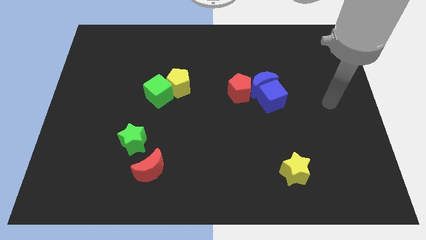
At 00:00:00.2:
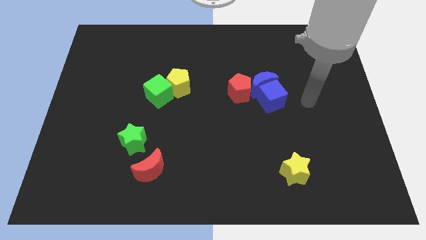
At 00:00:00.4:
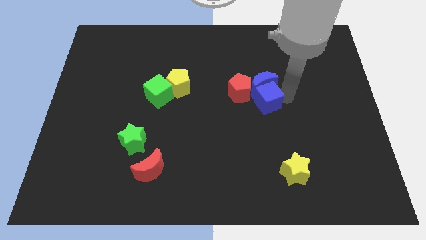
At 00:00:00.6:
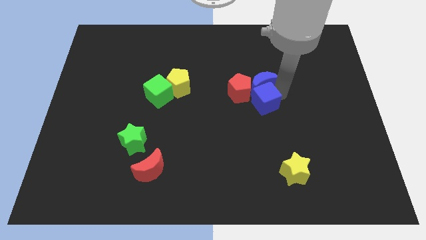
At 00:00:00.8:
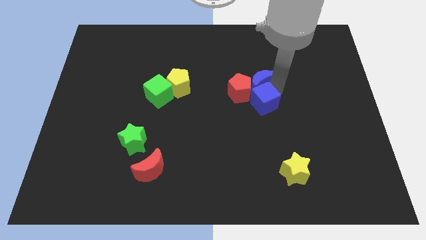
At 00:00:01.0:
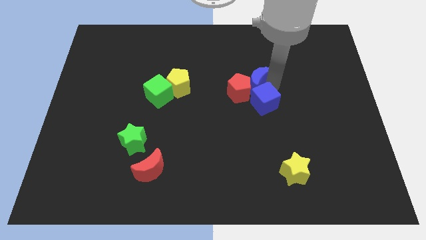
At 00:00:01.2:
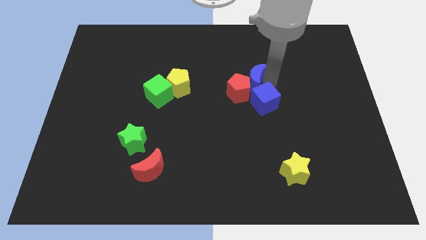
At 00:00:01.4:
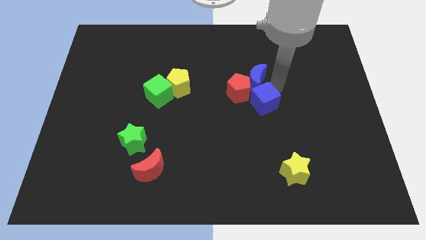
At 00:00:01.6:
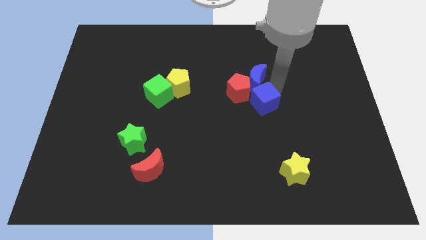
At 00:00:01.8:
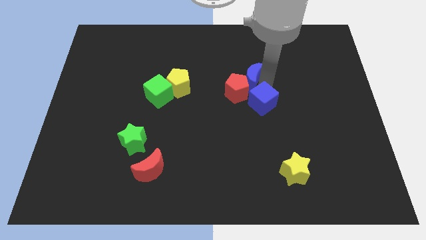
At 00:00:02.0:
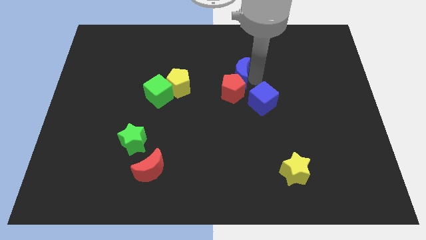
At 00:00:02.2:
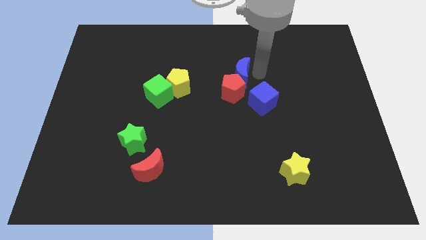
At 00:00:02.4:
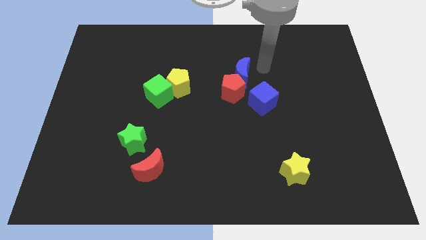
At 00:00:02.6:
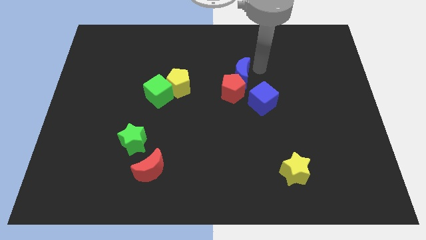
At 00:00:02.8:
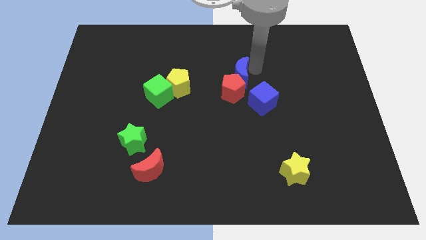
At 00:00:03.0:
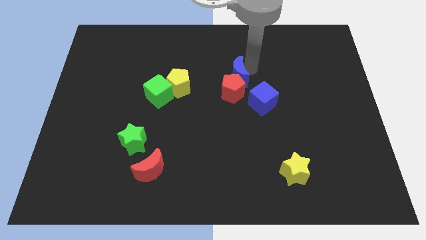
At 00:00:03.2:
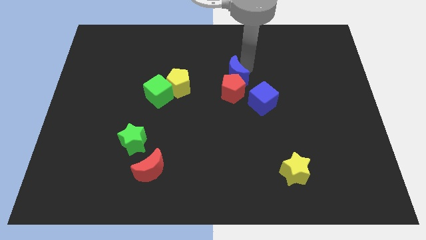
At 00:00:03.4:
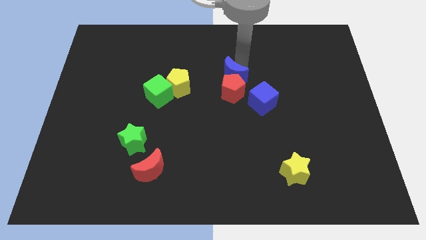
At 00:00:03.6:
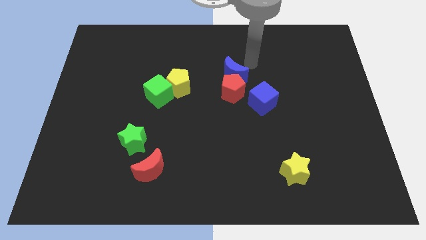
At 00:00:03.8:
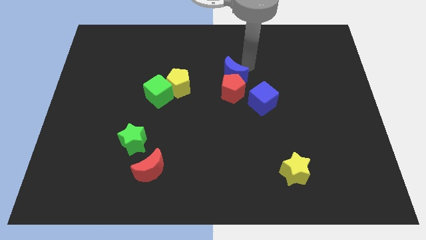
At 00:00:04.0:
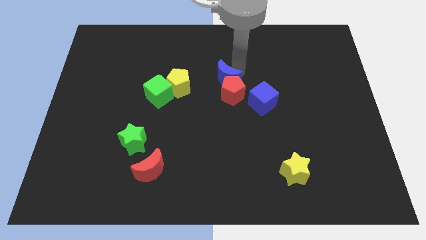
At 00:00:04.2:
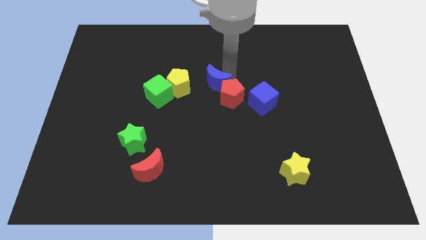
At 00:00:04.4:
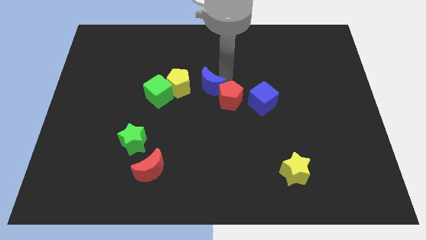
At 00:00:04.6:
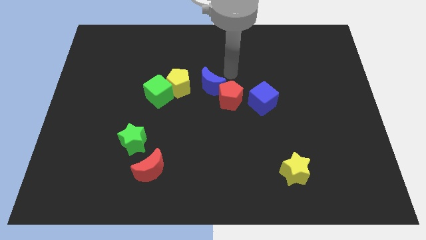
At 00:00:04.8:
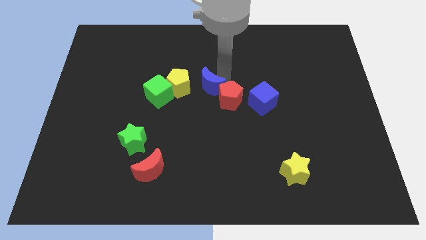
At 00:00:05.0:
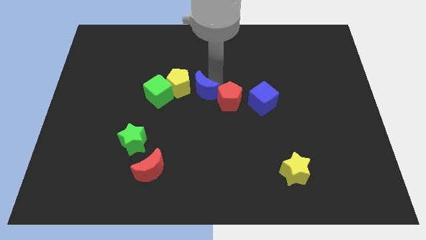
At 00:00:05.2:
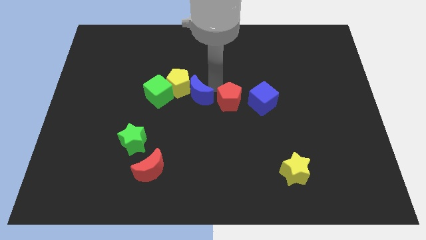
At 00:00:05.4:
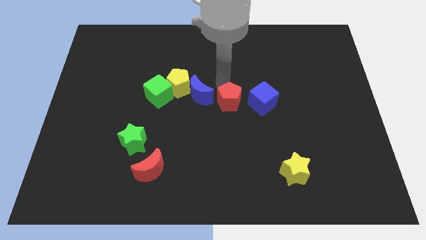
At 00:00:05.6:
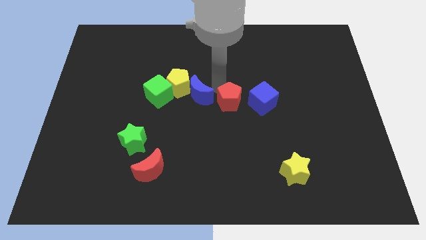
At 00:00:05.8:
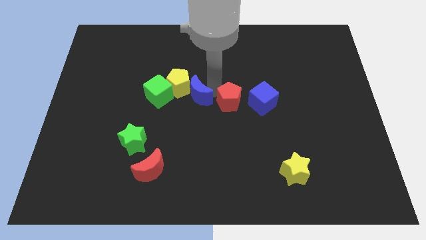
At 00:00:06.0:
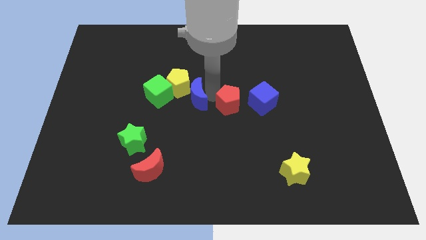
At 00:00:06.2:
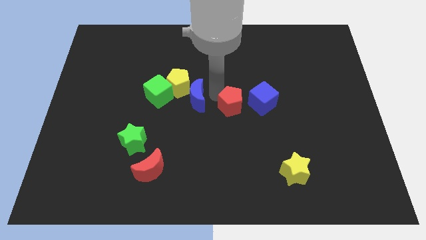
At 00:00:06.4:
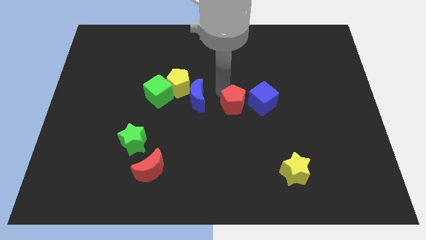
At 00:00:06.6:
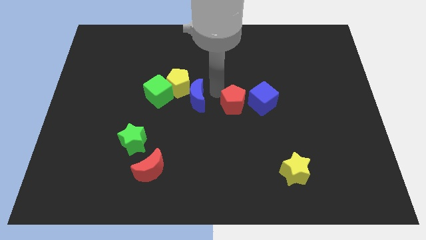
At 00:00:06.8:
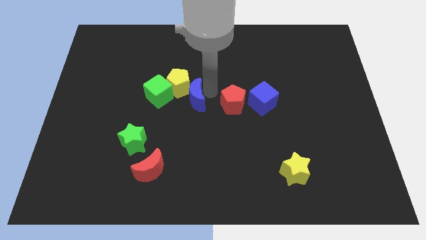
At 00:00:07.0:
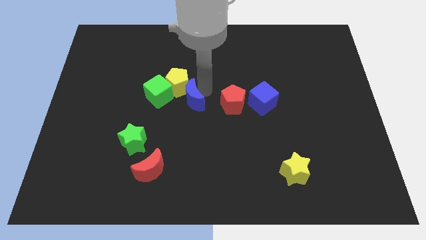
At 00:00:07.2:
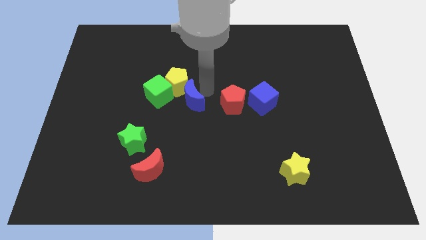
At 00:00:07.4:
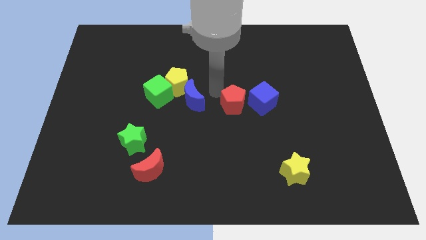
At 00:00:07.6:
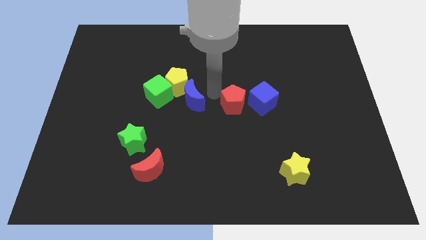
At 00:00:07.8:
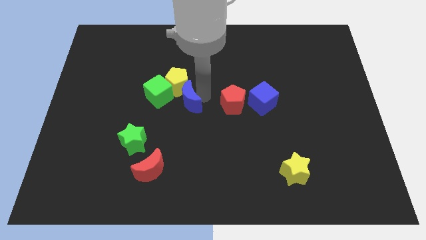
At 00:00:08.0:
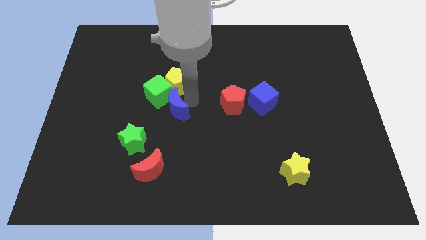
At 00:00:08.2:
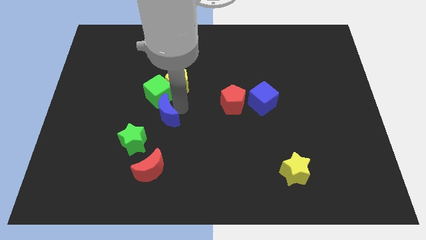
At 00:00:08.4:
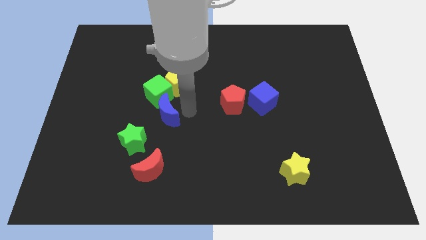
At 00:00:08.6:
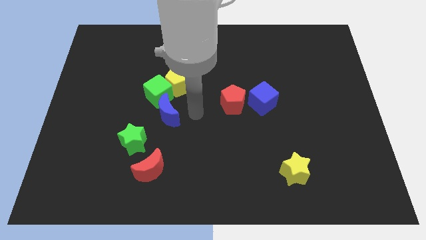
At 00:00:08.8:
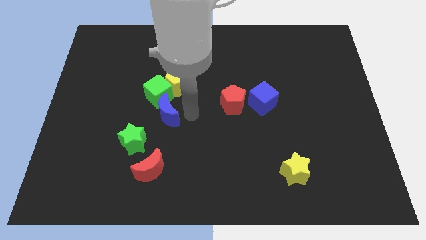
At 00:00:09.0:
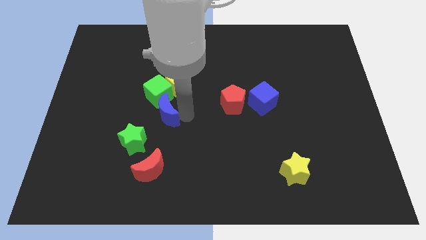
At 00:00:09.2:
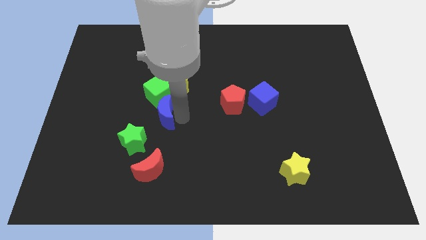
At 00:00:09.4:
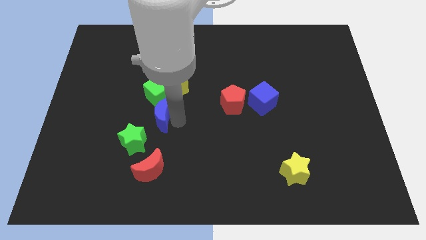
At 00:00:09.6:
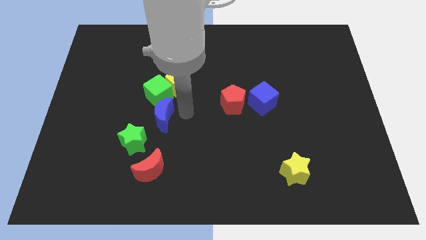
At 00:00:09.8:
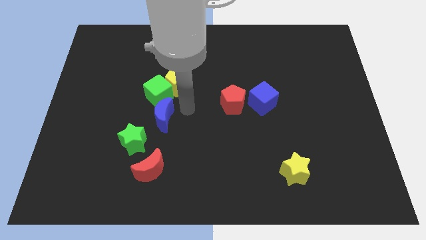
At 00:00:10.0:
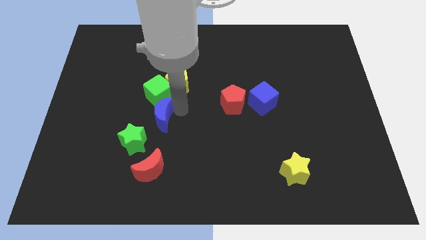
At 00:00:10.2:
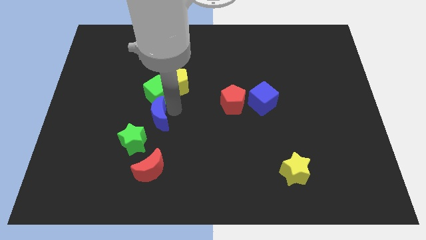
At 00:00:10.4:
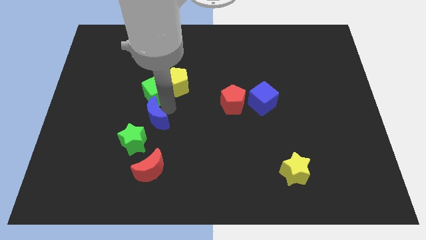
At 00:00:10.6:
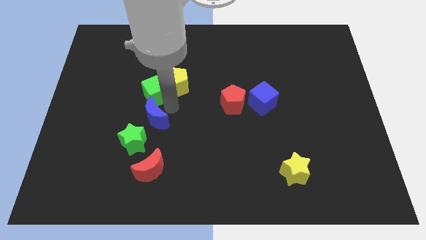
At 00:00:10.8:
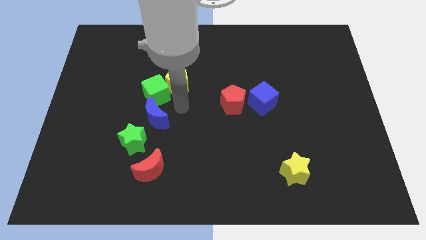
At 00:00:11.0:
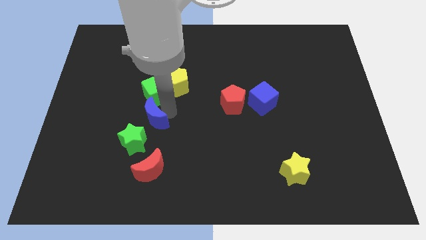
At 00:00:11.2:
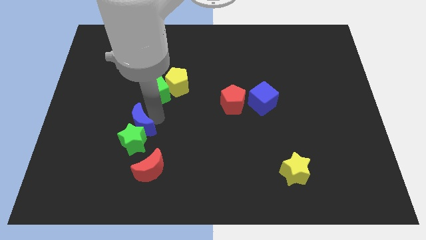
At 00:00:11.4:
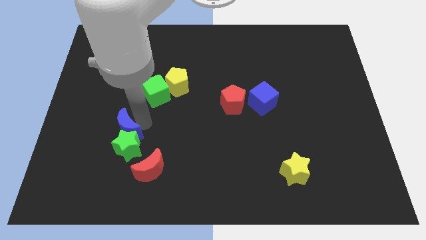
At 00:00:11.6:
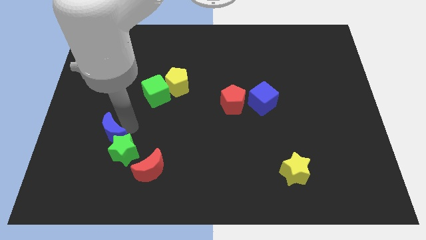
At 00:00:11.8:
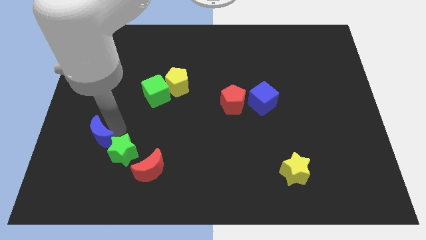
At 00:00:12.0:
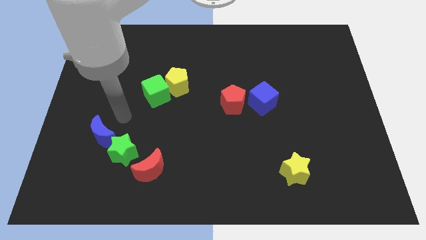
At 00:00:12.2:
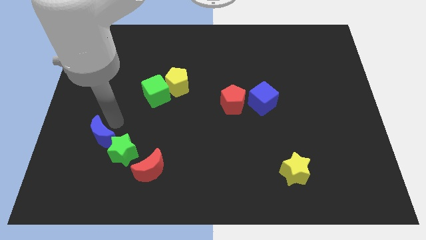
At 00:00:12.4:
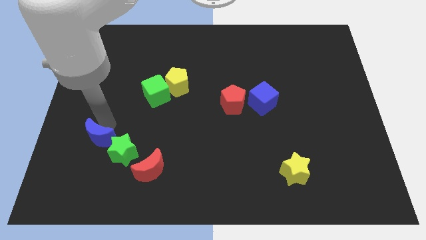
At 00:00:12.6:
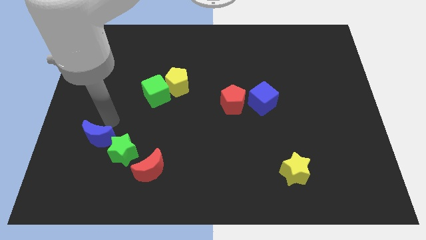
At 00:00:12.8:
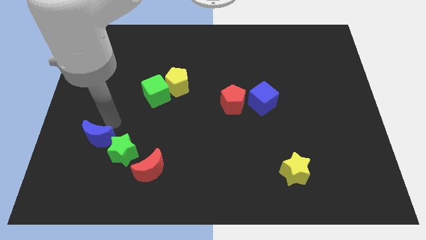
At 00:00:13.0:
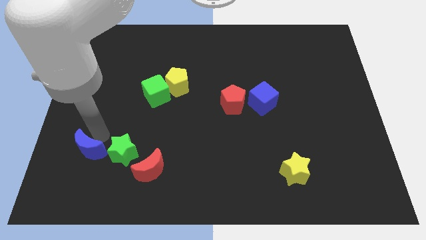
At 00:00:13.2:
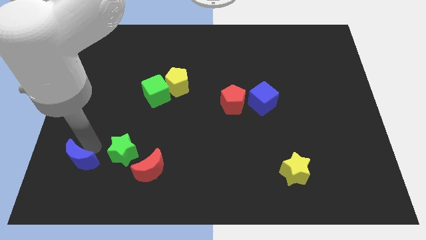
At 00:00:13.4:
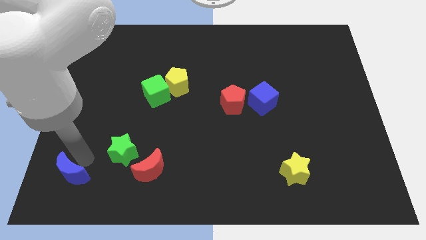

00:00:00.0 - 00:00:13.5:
put the blue moon to the bottom left corner

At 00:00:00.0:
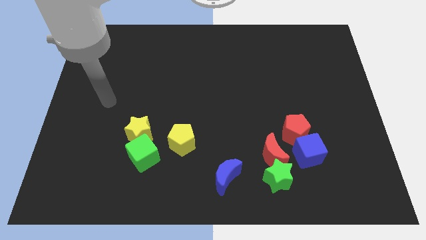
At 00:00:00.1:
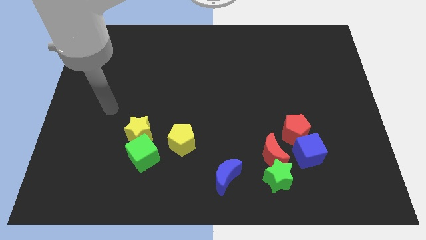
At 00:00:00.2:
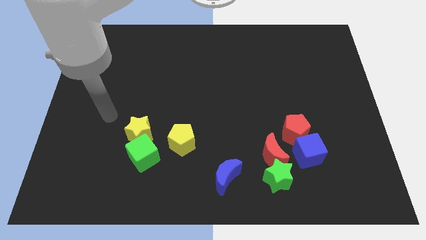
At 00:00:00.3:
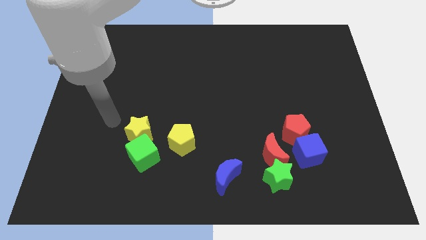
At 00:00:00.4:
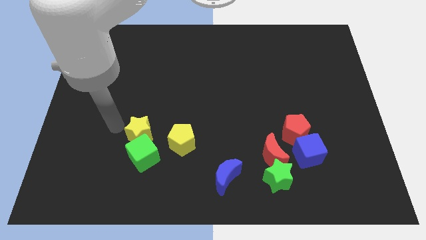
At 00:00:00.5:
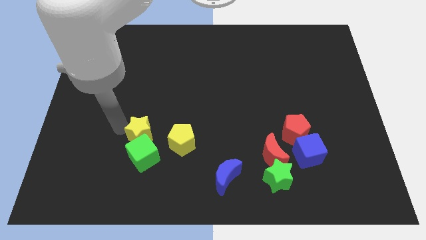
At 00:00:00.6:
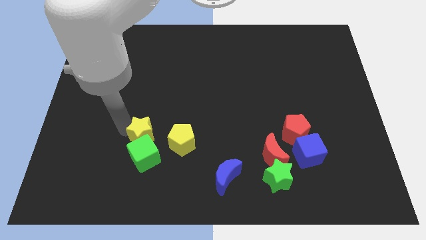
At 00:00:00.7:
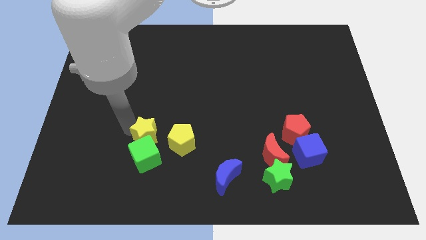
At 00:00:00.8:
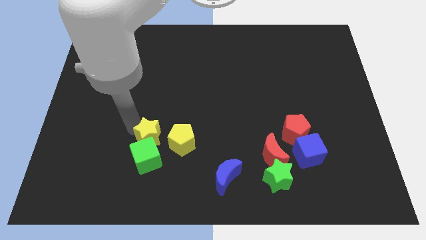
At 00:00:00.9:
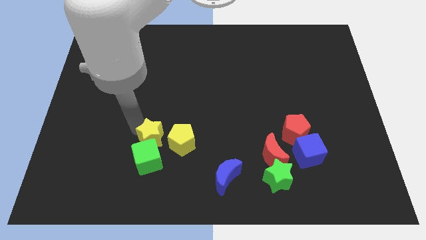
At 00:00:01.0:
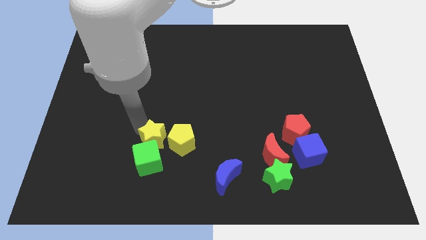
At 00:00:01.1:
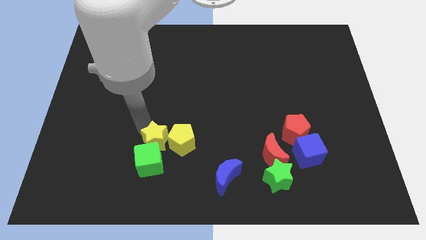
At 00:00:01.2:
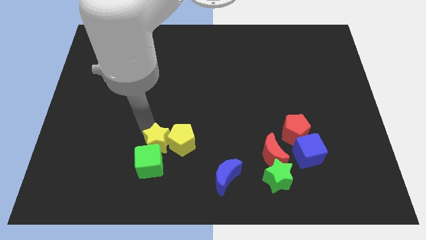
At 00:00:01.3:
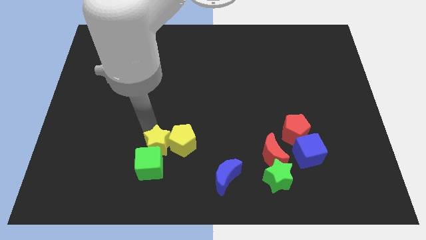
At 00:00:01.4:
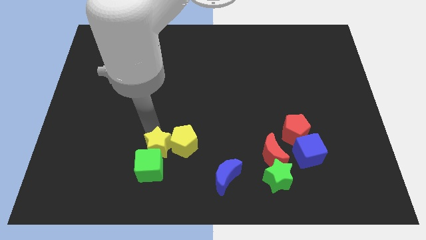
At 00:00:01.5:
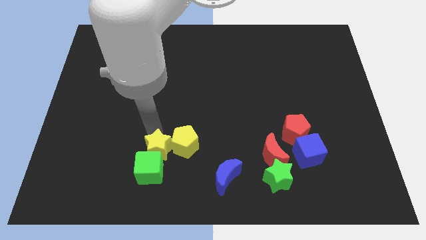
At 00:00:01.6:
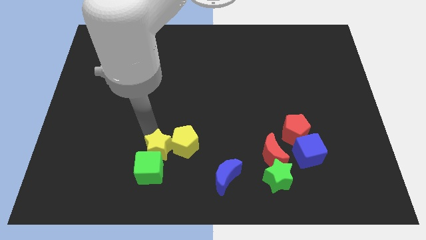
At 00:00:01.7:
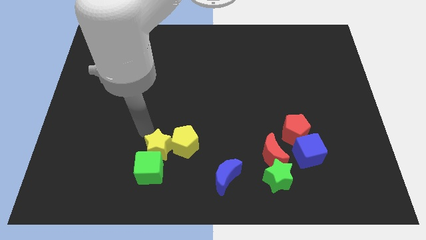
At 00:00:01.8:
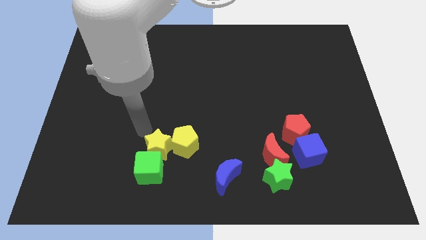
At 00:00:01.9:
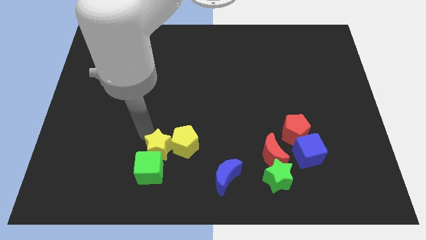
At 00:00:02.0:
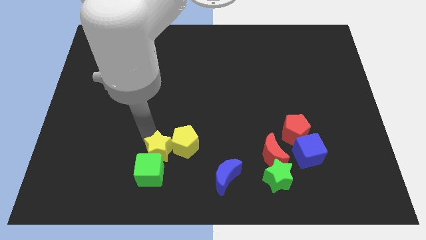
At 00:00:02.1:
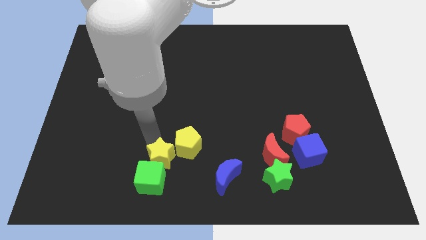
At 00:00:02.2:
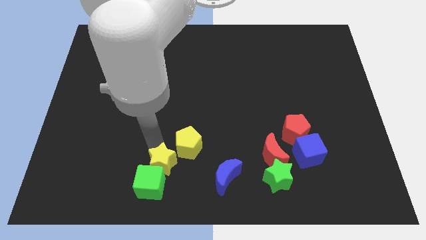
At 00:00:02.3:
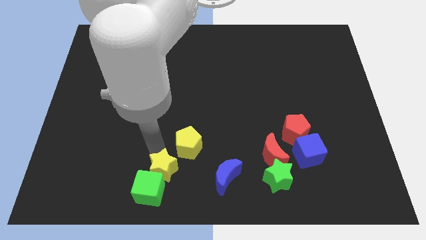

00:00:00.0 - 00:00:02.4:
slide the yellow star to the bottom
